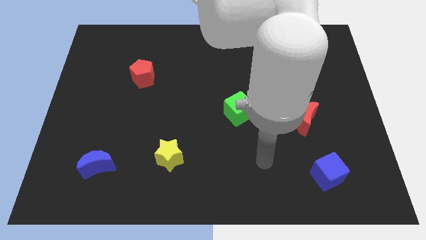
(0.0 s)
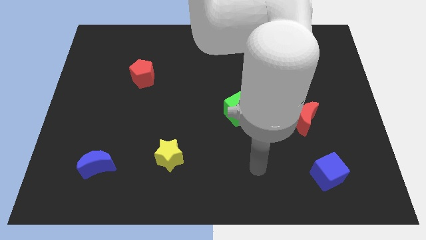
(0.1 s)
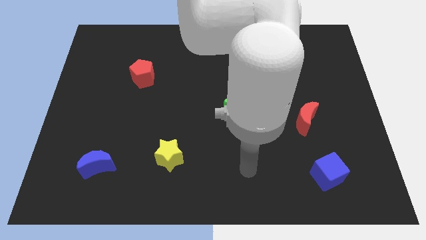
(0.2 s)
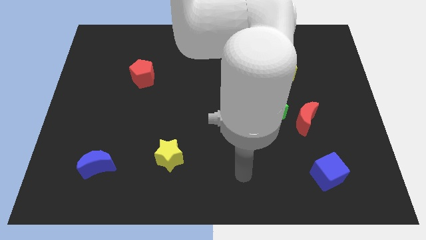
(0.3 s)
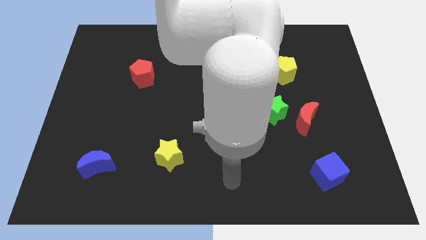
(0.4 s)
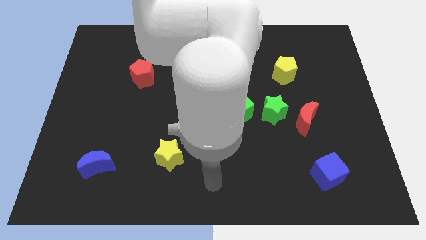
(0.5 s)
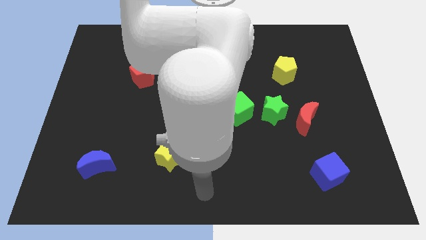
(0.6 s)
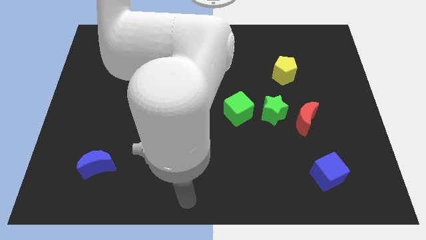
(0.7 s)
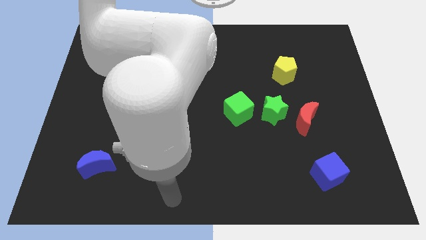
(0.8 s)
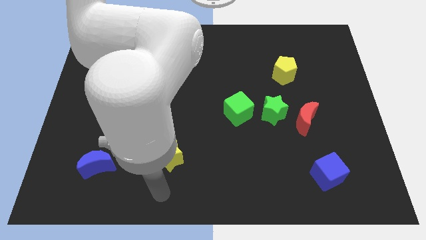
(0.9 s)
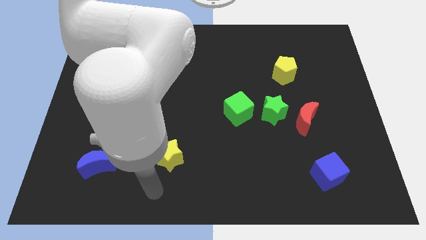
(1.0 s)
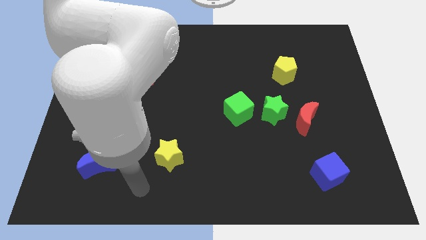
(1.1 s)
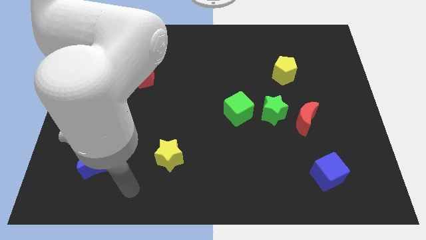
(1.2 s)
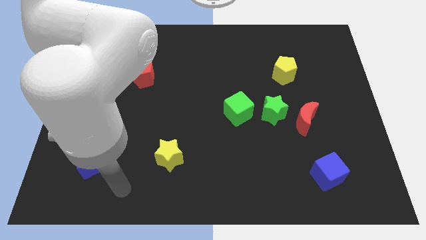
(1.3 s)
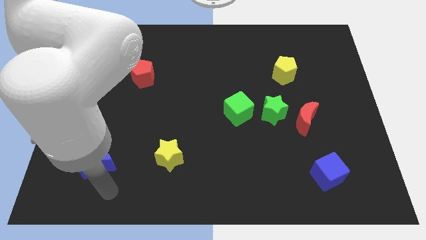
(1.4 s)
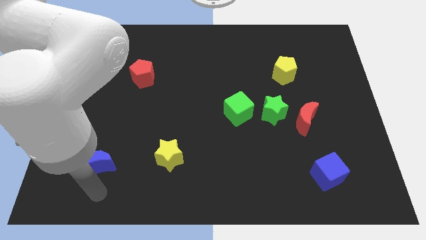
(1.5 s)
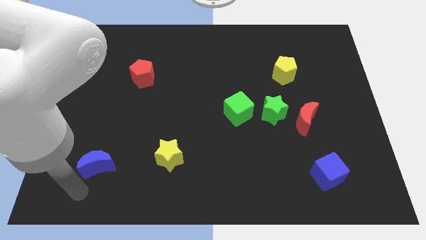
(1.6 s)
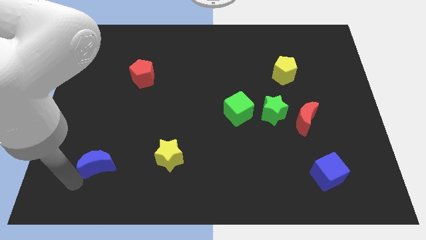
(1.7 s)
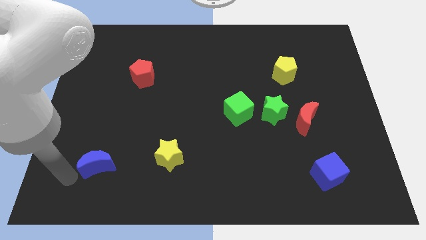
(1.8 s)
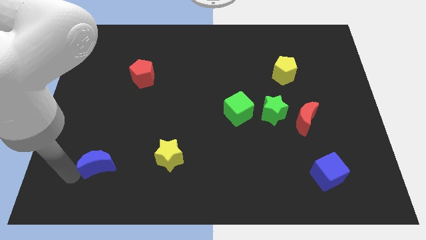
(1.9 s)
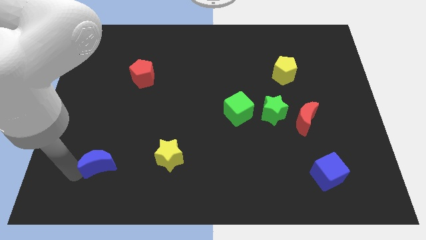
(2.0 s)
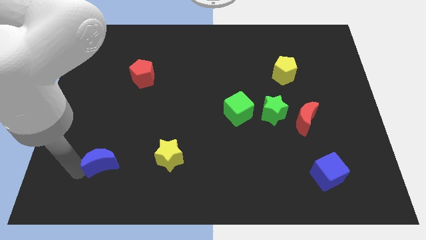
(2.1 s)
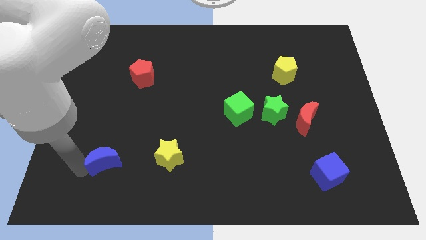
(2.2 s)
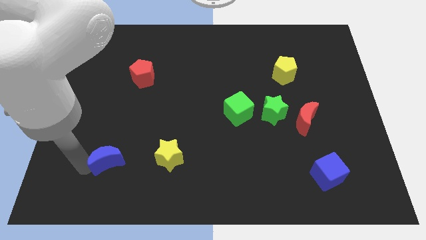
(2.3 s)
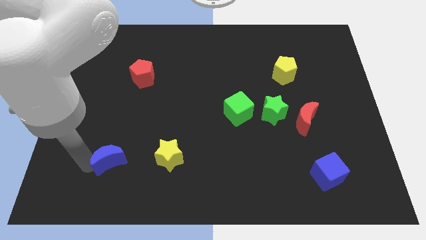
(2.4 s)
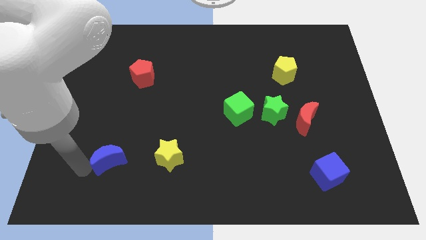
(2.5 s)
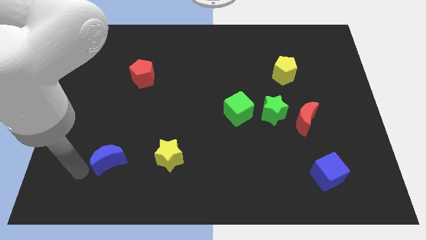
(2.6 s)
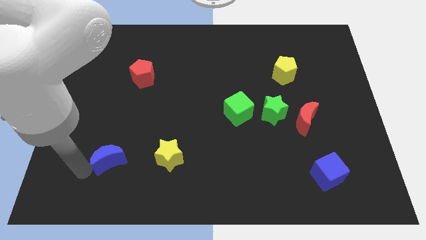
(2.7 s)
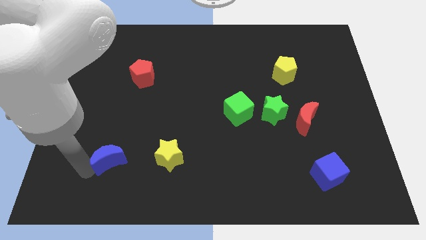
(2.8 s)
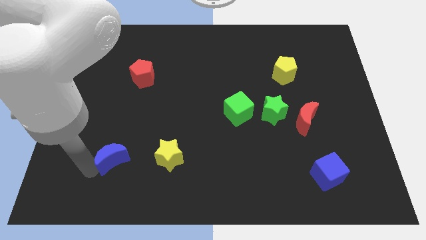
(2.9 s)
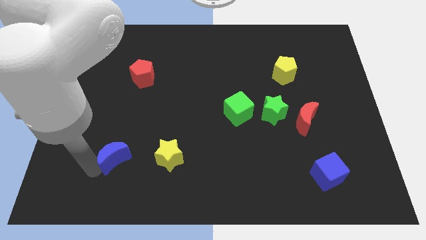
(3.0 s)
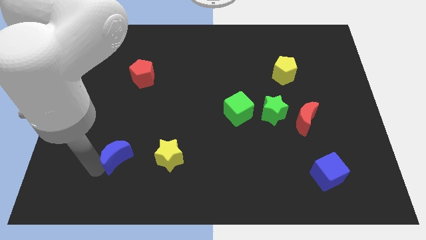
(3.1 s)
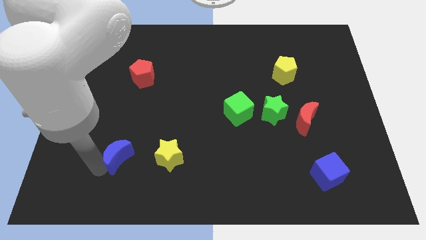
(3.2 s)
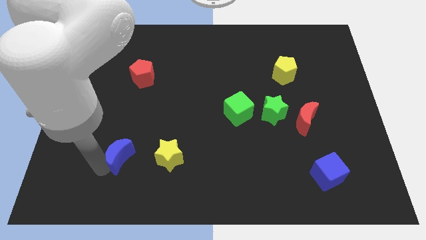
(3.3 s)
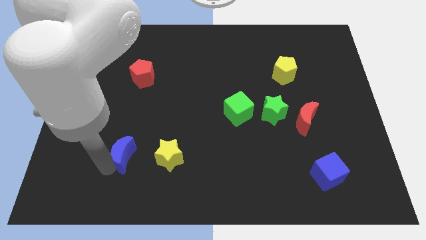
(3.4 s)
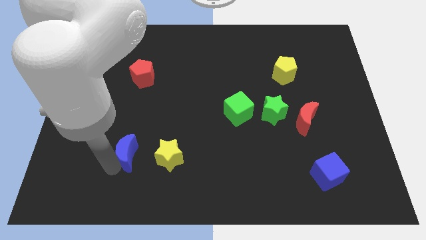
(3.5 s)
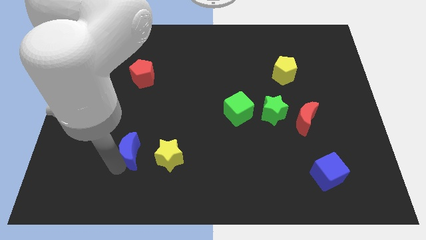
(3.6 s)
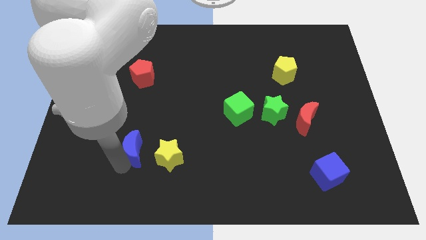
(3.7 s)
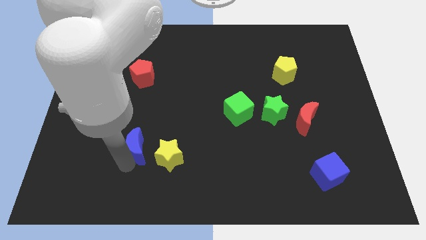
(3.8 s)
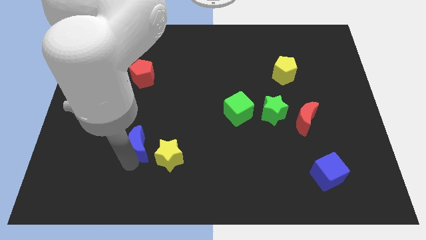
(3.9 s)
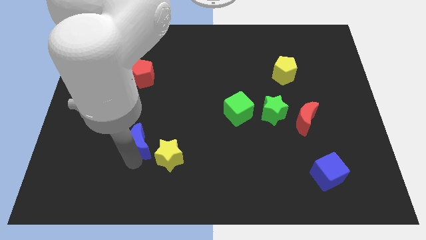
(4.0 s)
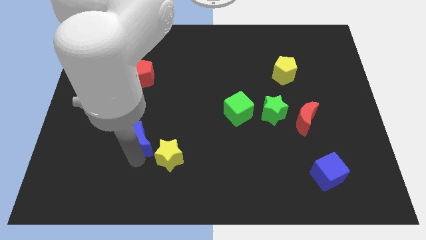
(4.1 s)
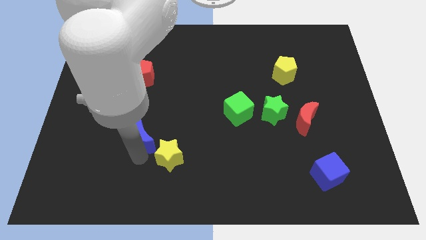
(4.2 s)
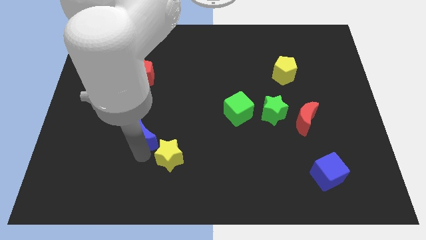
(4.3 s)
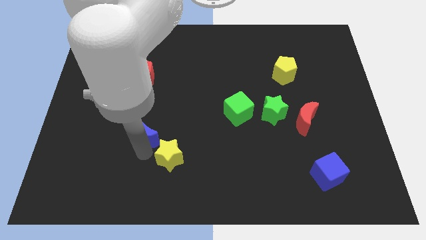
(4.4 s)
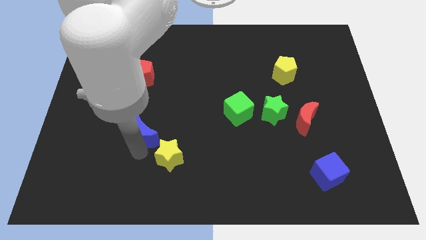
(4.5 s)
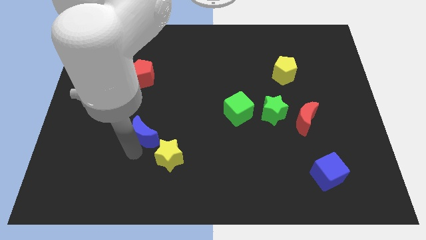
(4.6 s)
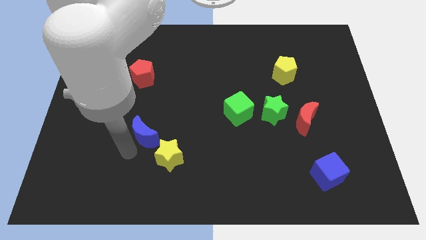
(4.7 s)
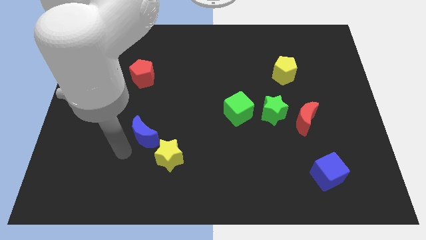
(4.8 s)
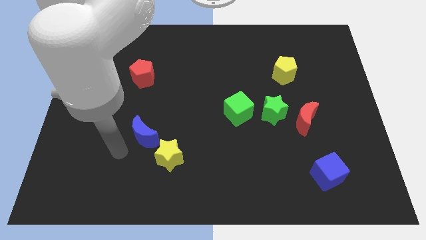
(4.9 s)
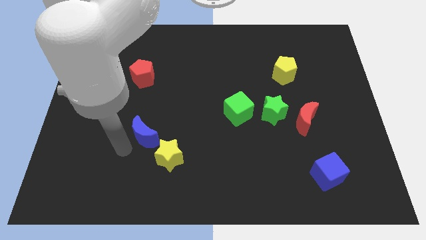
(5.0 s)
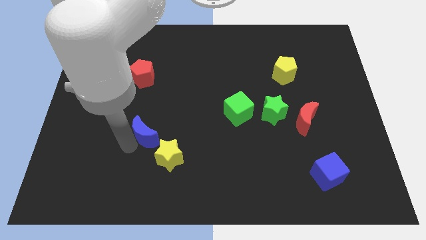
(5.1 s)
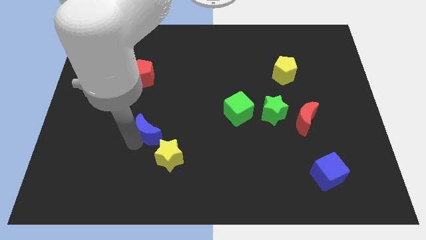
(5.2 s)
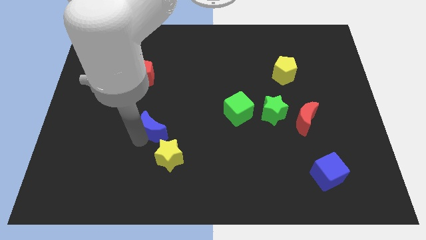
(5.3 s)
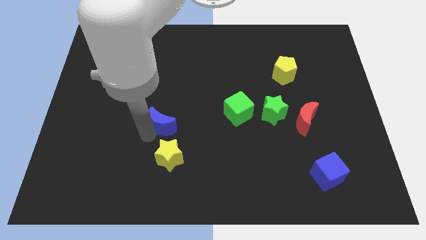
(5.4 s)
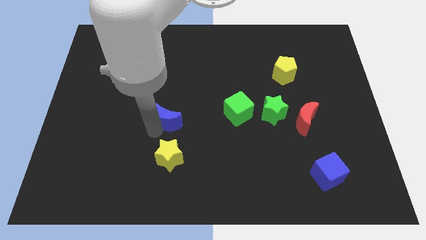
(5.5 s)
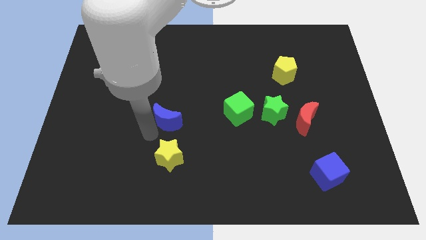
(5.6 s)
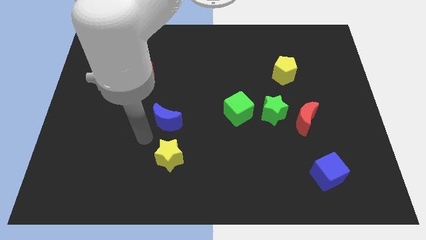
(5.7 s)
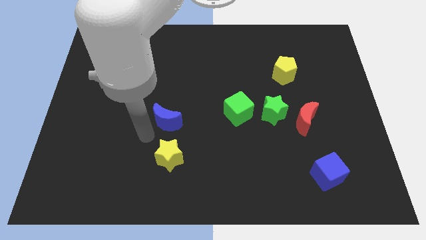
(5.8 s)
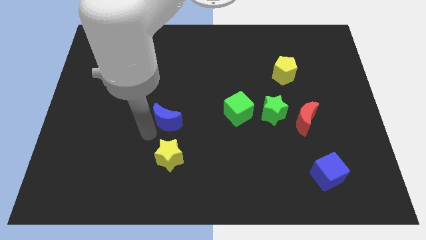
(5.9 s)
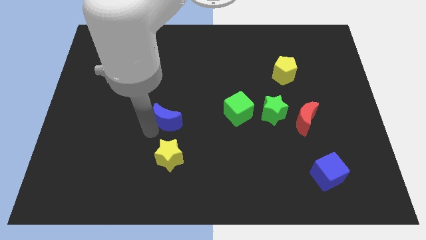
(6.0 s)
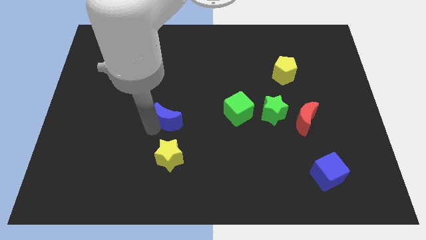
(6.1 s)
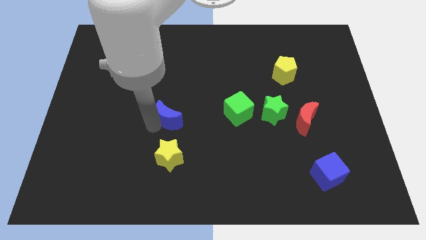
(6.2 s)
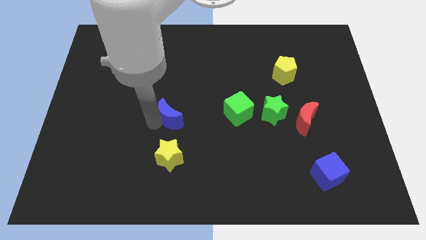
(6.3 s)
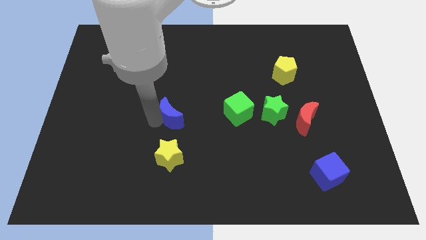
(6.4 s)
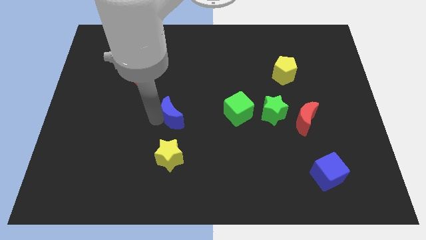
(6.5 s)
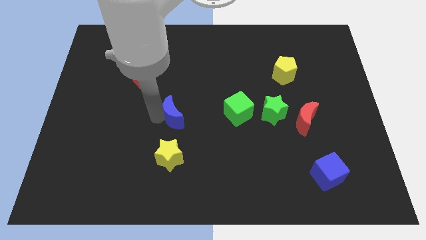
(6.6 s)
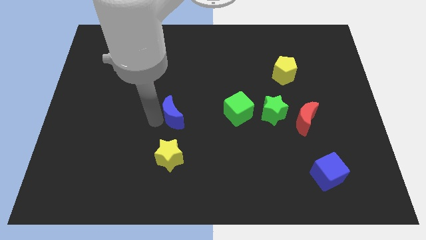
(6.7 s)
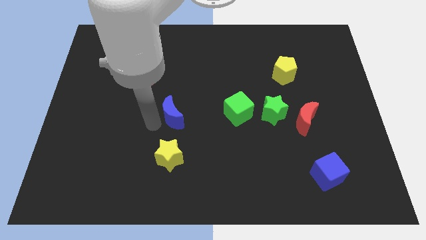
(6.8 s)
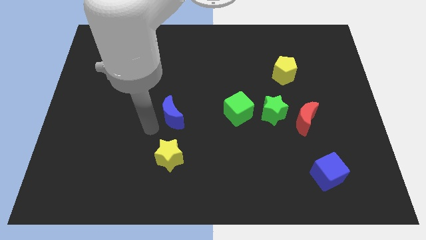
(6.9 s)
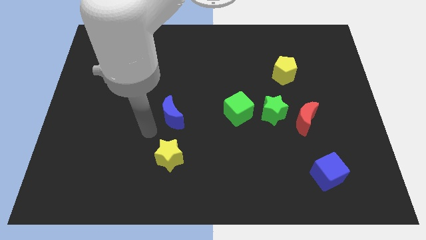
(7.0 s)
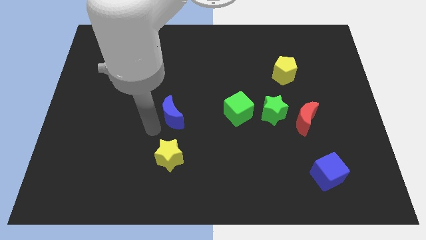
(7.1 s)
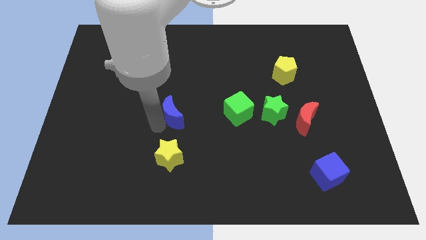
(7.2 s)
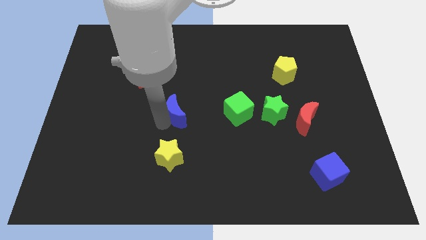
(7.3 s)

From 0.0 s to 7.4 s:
move the blue moon upwards and right

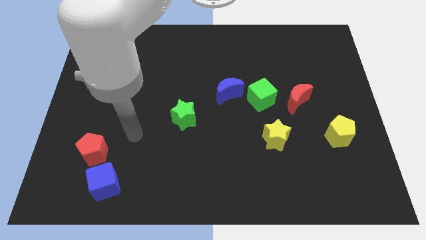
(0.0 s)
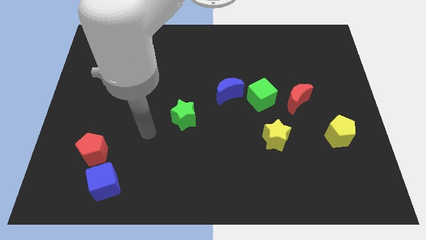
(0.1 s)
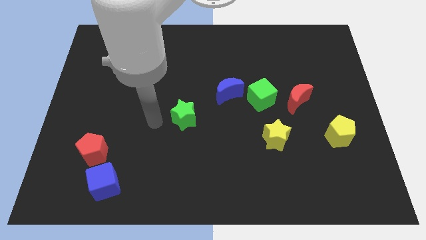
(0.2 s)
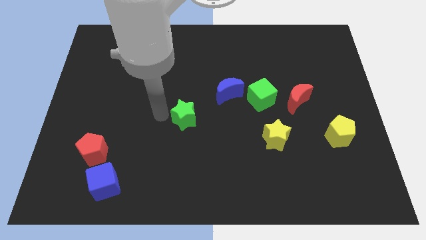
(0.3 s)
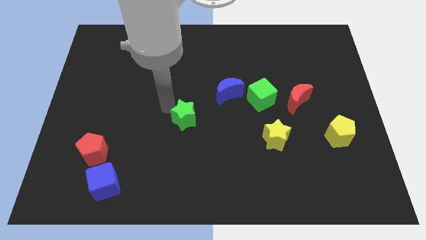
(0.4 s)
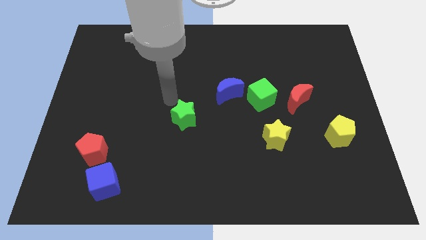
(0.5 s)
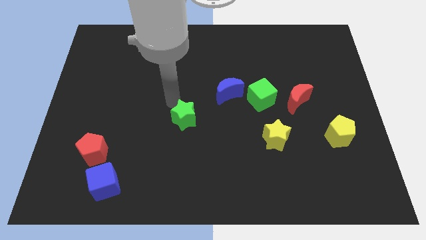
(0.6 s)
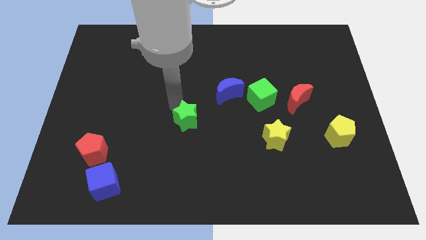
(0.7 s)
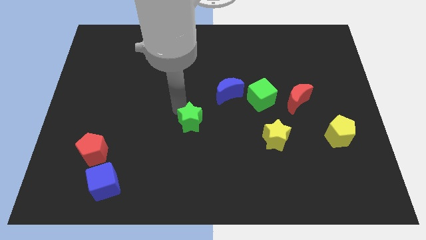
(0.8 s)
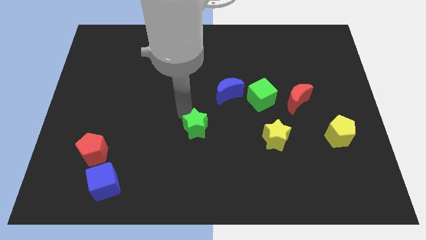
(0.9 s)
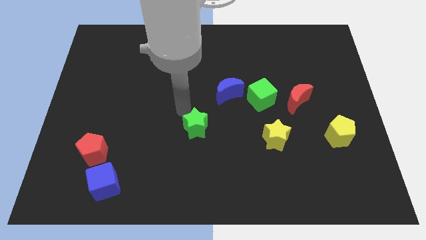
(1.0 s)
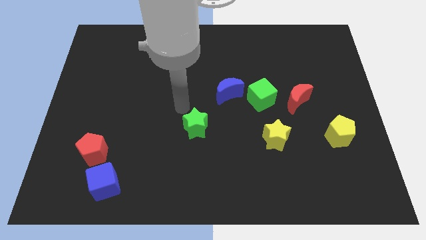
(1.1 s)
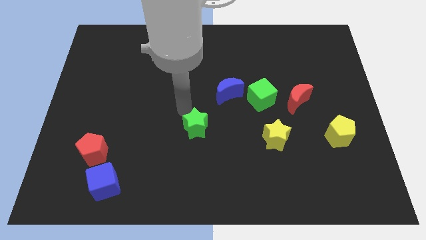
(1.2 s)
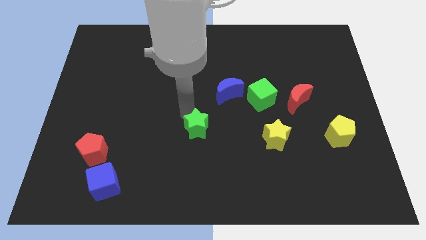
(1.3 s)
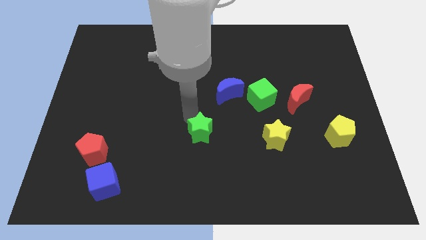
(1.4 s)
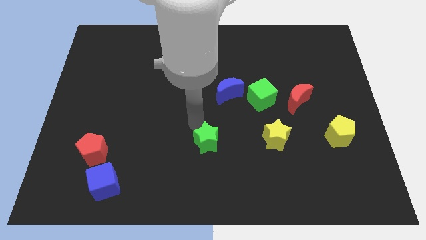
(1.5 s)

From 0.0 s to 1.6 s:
move the green star slightly diagonally down and right

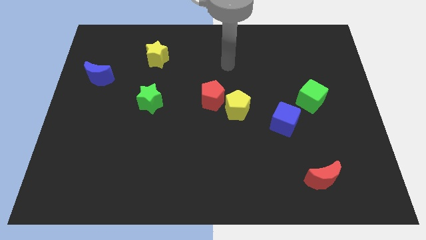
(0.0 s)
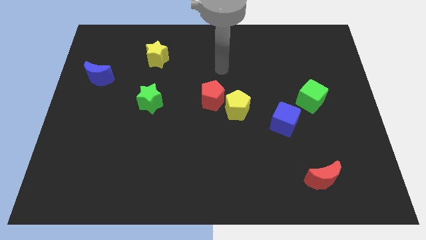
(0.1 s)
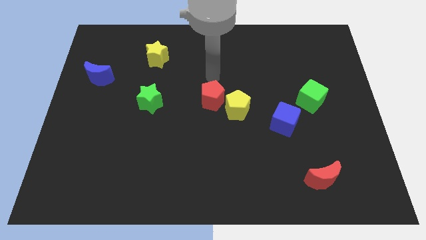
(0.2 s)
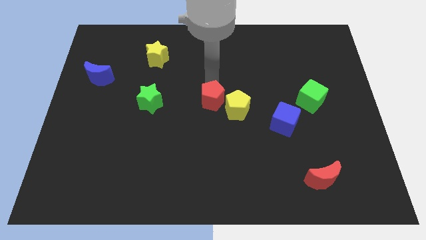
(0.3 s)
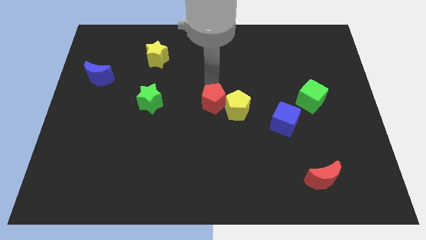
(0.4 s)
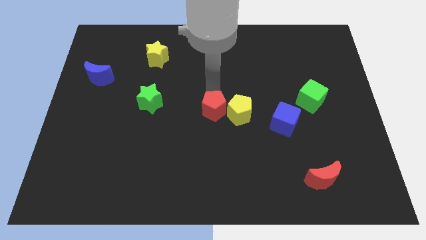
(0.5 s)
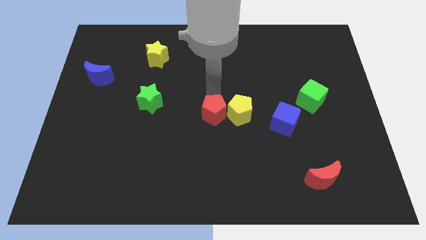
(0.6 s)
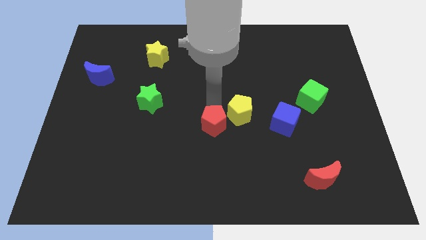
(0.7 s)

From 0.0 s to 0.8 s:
move the red pentagon downwards slightly
